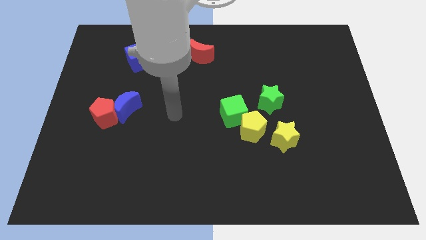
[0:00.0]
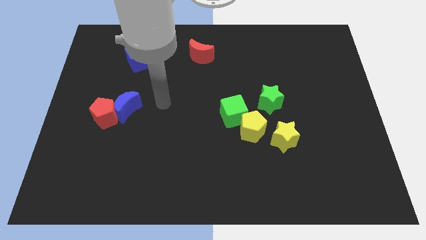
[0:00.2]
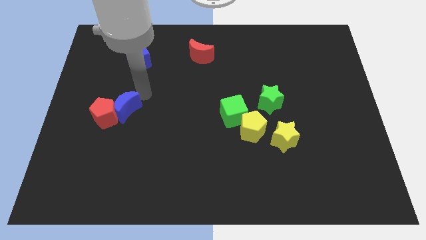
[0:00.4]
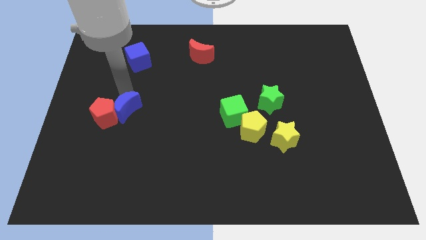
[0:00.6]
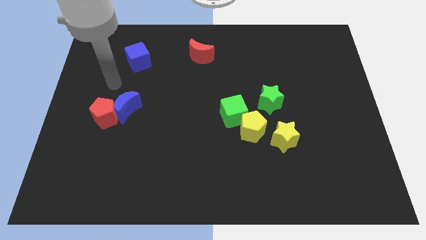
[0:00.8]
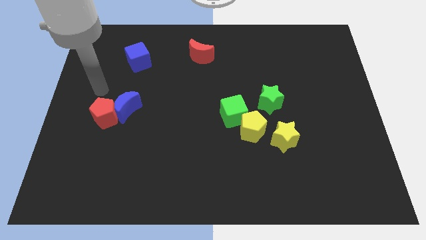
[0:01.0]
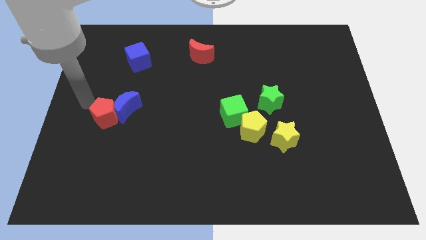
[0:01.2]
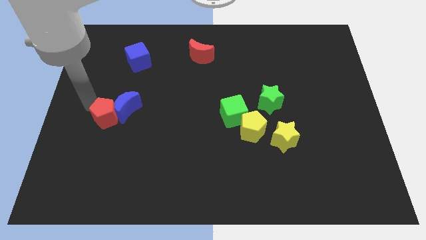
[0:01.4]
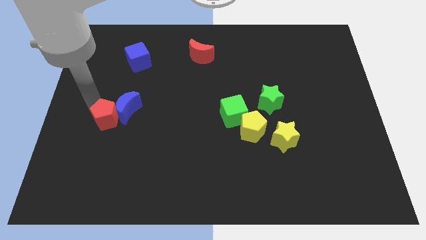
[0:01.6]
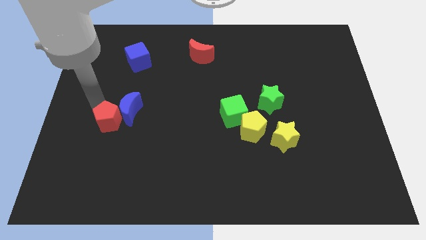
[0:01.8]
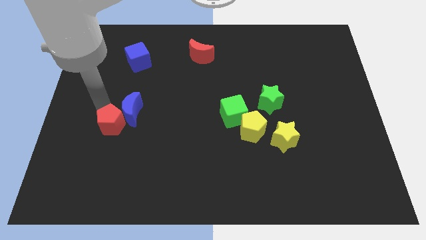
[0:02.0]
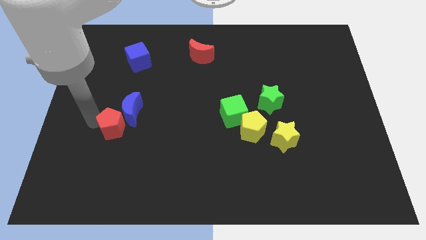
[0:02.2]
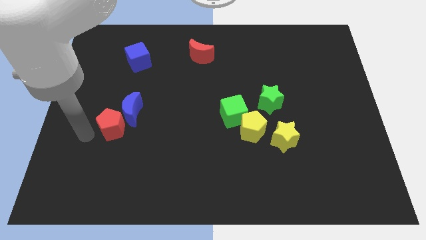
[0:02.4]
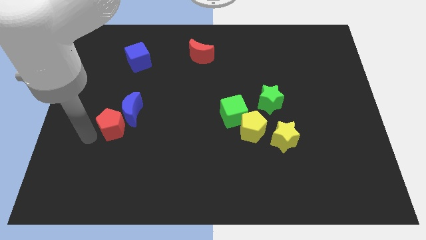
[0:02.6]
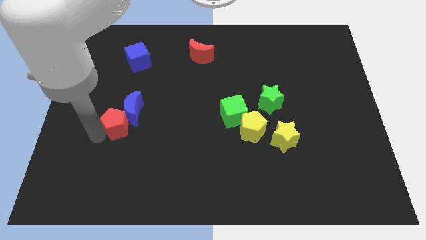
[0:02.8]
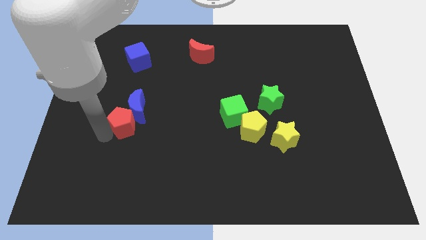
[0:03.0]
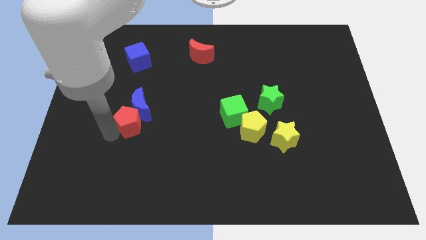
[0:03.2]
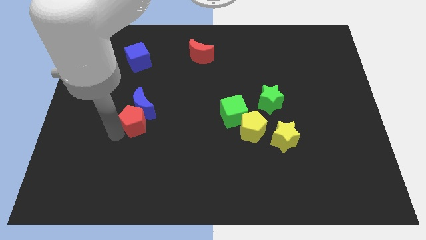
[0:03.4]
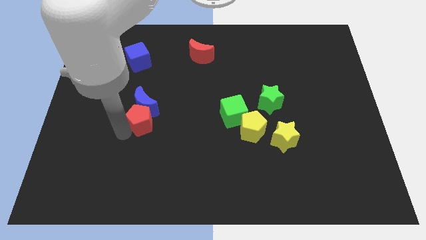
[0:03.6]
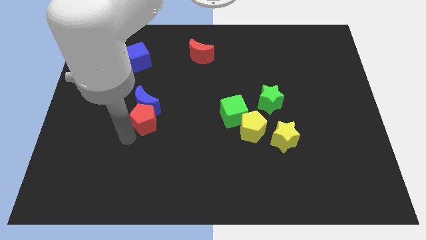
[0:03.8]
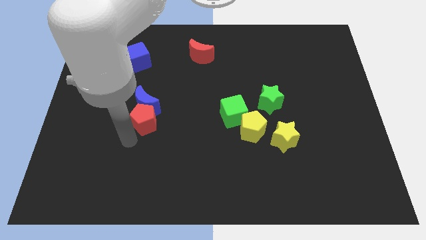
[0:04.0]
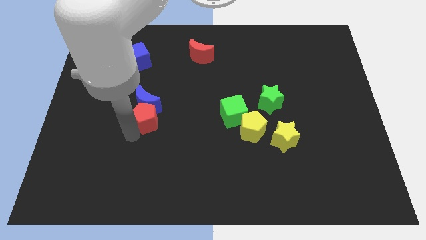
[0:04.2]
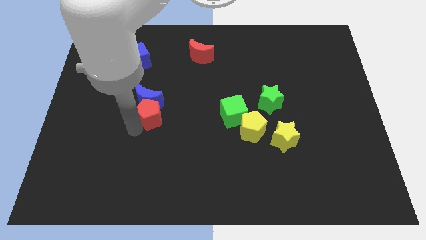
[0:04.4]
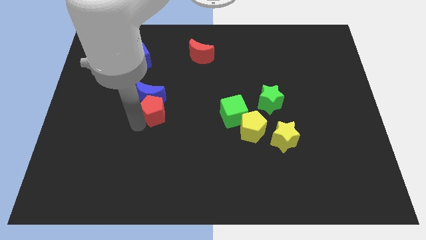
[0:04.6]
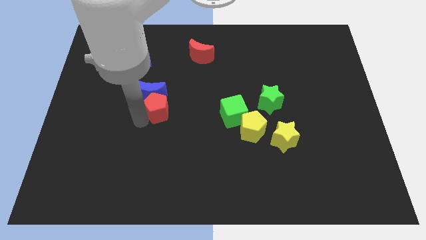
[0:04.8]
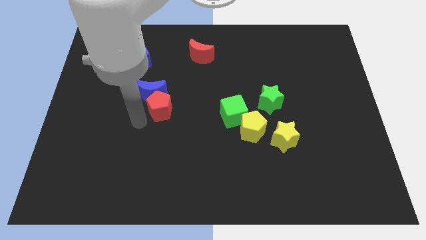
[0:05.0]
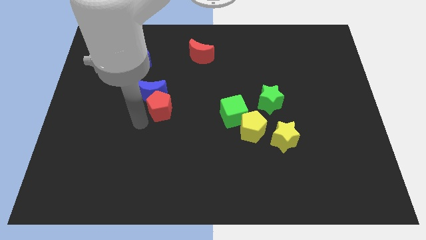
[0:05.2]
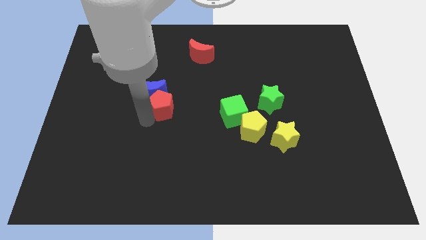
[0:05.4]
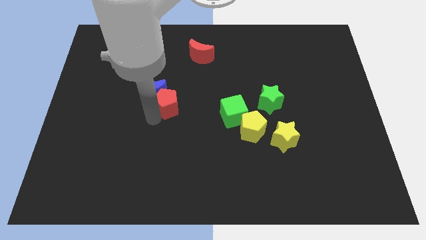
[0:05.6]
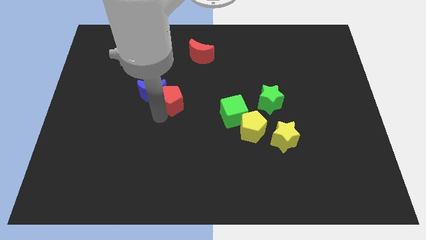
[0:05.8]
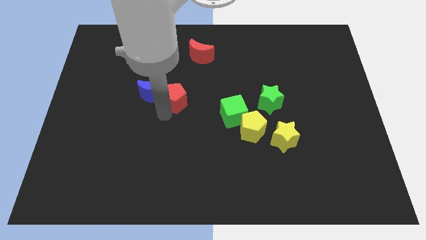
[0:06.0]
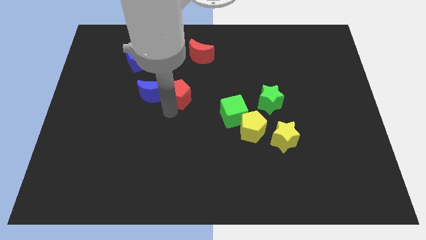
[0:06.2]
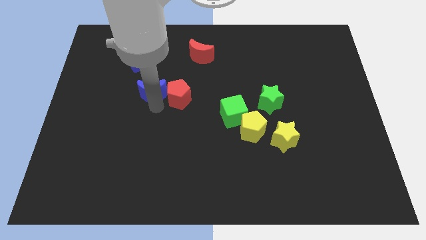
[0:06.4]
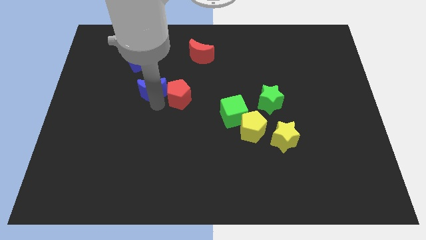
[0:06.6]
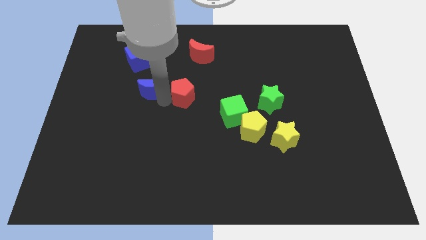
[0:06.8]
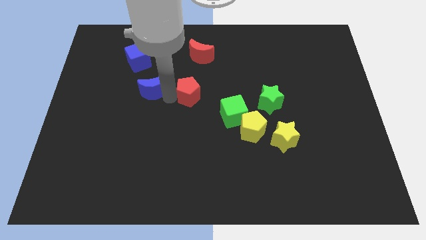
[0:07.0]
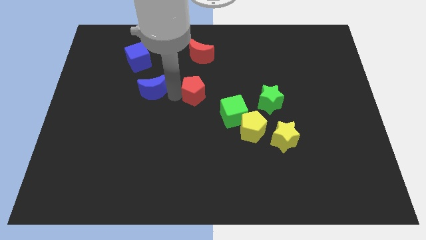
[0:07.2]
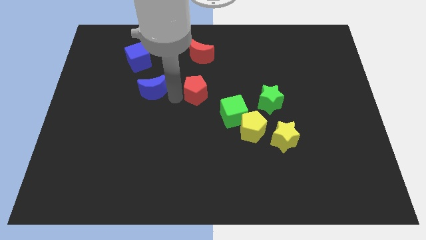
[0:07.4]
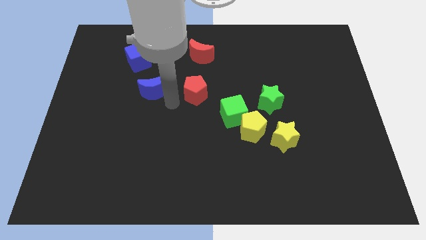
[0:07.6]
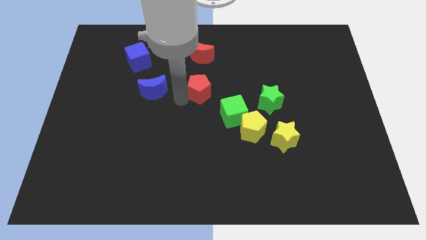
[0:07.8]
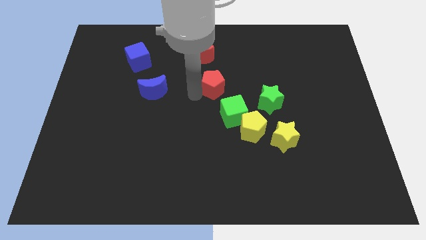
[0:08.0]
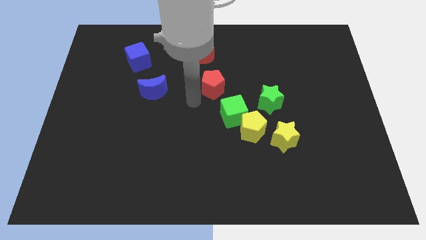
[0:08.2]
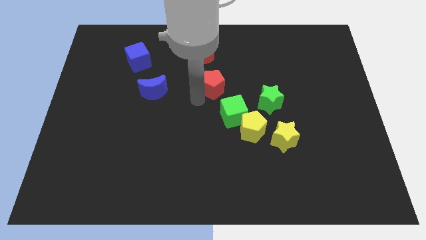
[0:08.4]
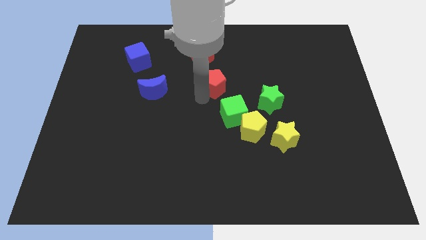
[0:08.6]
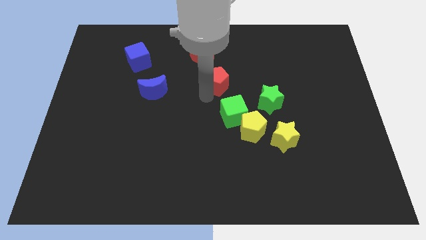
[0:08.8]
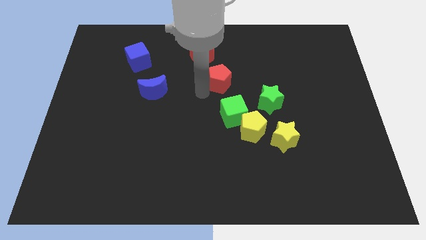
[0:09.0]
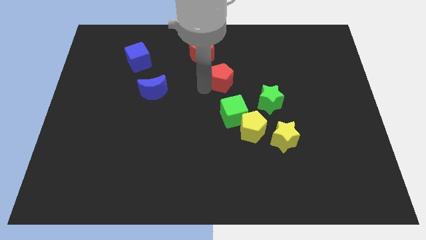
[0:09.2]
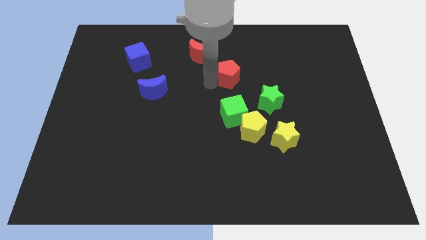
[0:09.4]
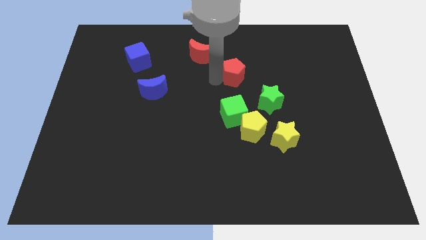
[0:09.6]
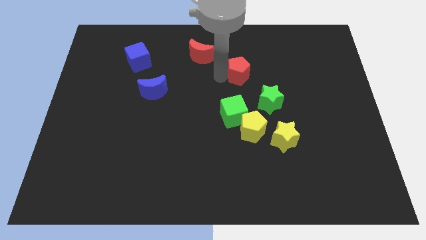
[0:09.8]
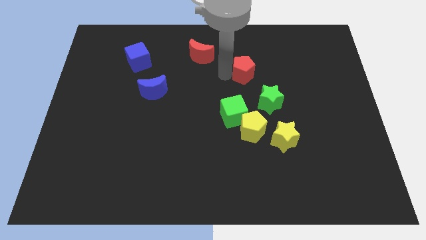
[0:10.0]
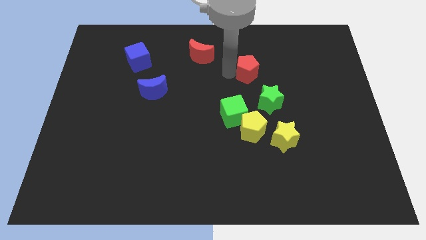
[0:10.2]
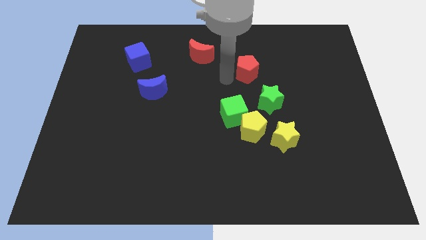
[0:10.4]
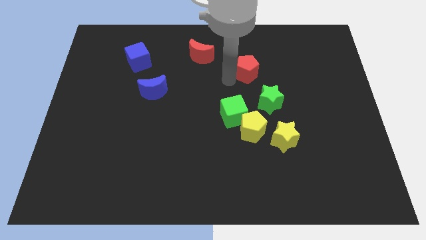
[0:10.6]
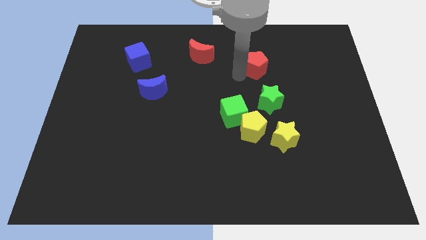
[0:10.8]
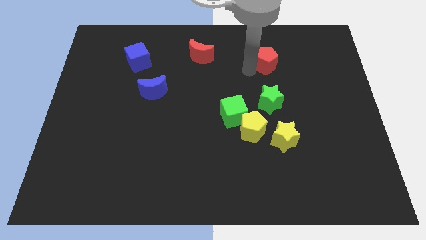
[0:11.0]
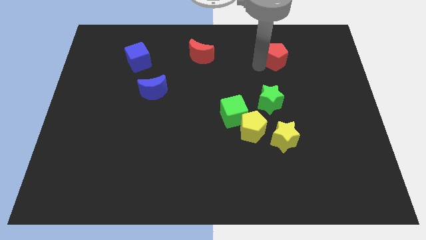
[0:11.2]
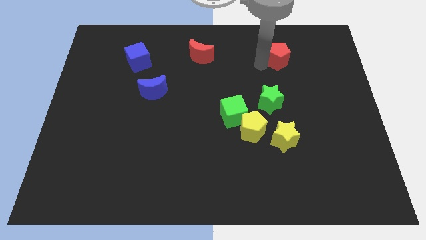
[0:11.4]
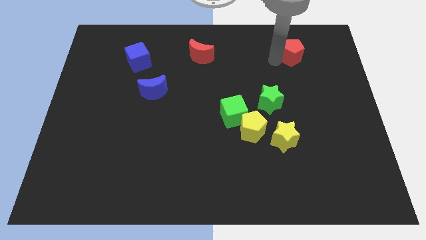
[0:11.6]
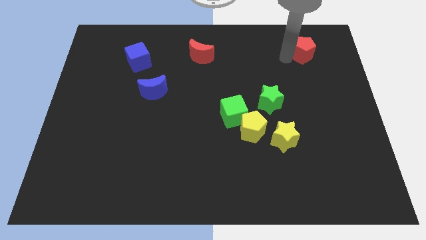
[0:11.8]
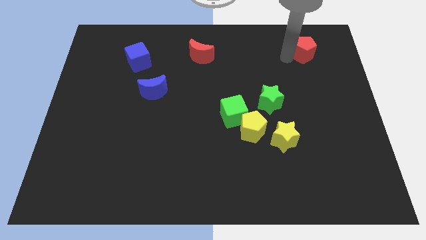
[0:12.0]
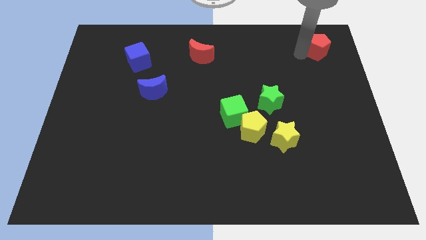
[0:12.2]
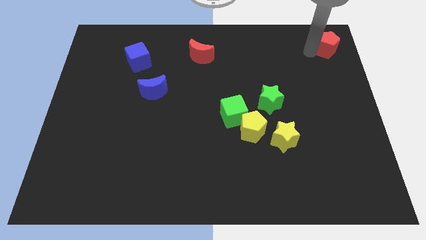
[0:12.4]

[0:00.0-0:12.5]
move the red pentagon to the upper right corner
